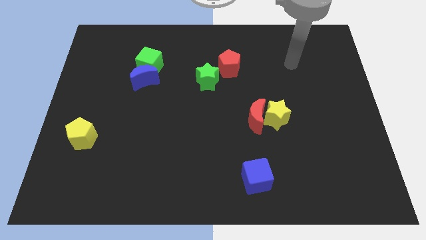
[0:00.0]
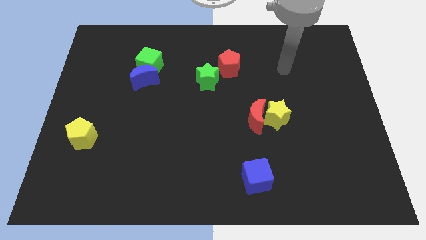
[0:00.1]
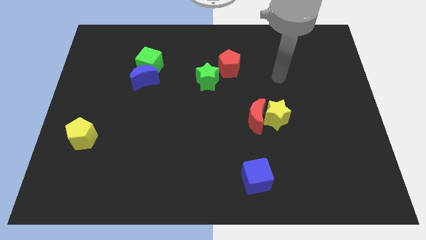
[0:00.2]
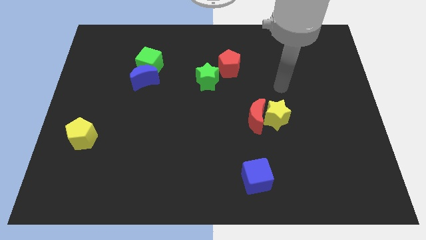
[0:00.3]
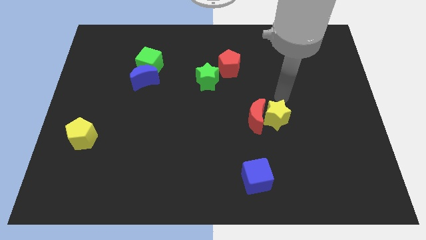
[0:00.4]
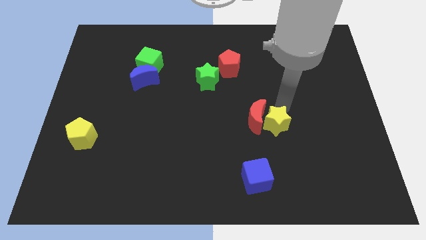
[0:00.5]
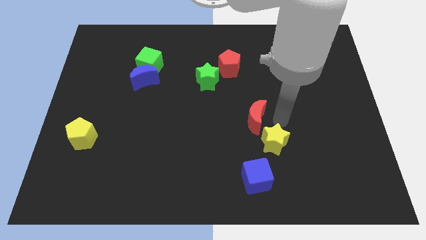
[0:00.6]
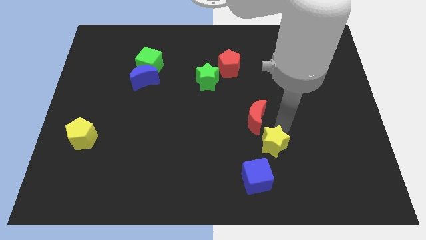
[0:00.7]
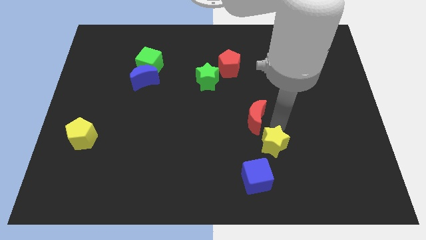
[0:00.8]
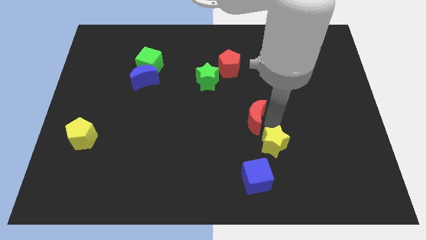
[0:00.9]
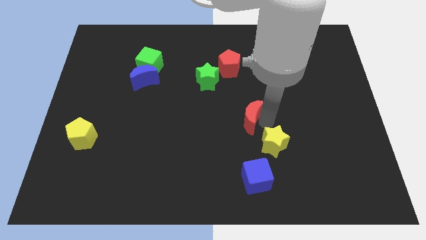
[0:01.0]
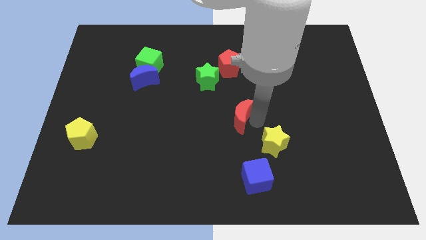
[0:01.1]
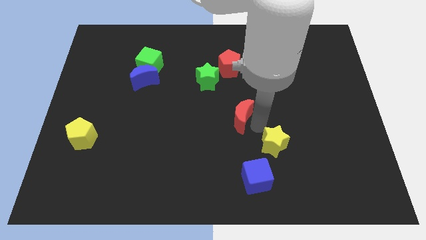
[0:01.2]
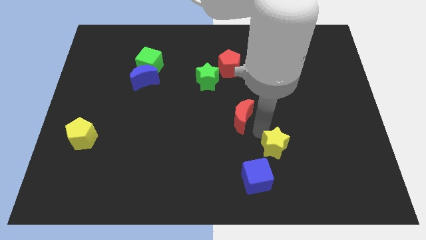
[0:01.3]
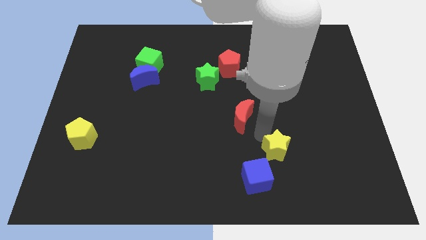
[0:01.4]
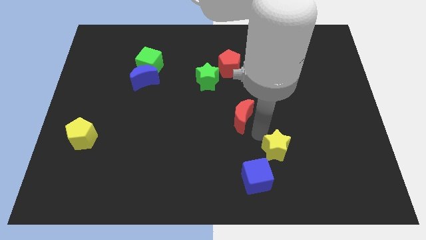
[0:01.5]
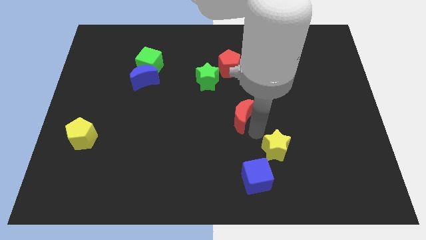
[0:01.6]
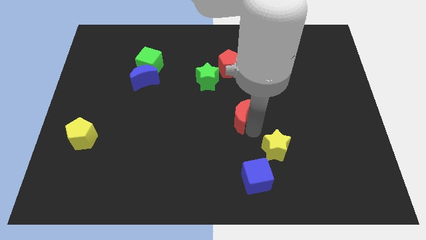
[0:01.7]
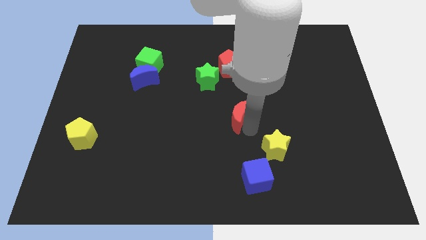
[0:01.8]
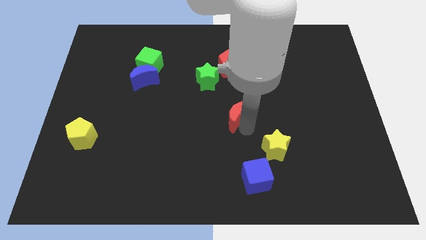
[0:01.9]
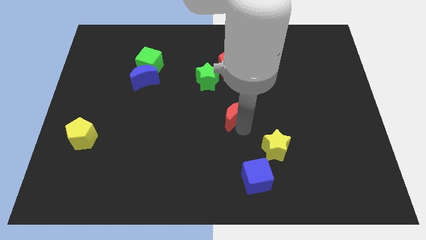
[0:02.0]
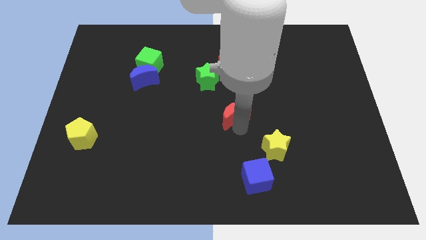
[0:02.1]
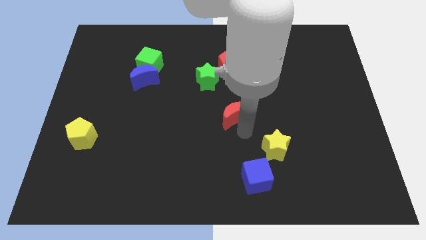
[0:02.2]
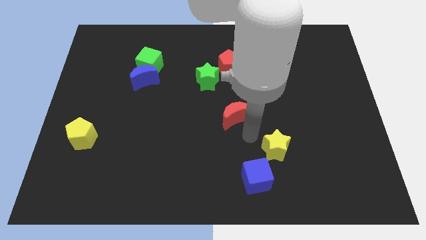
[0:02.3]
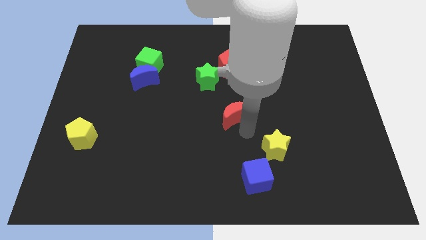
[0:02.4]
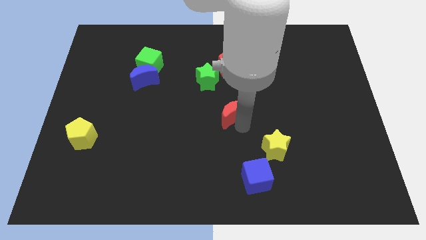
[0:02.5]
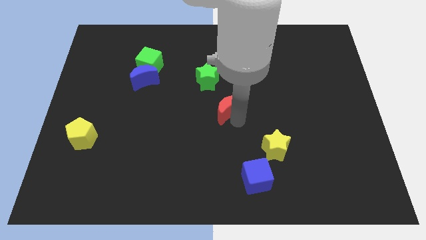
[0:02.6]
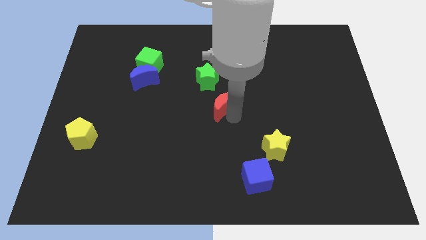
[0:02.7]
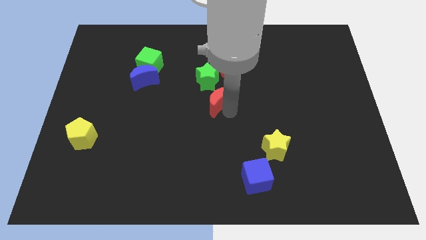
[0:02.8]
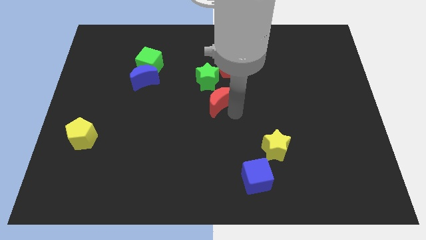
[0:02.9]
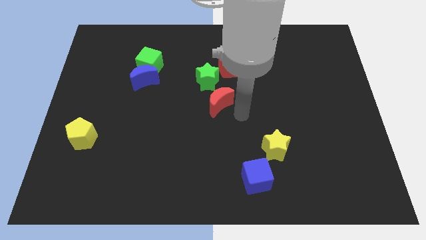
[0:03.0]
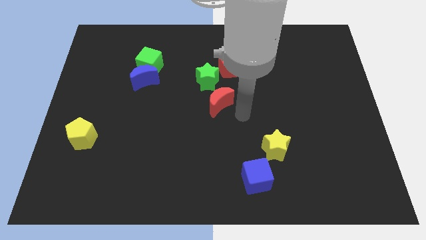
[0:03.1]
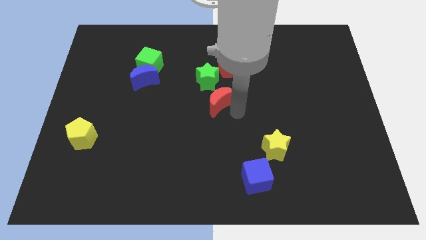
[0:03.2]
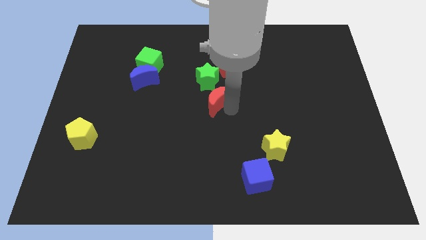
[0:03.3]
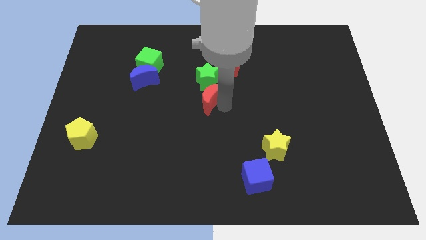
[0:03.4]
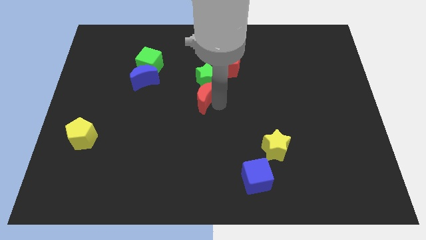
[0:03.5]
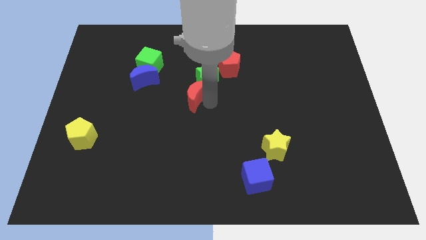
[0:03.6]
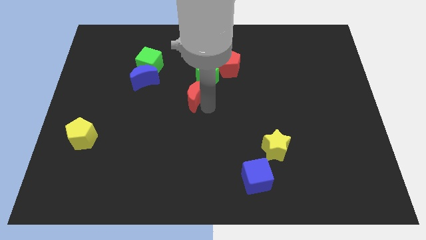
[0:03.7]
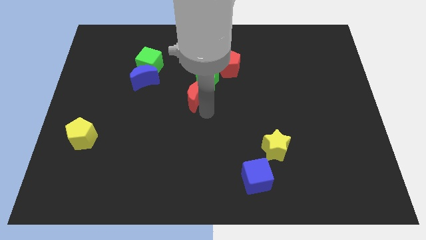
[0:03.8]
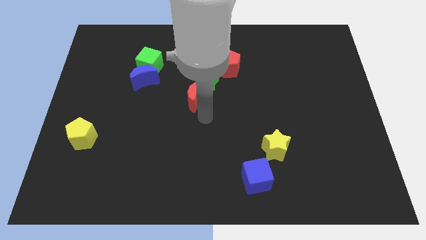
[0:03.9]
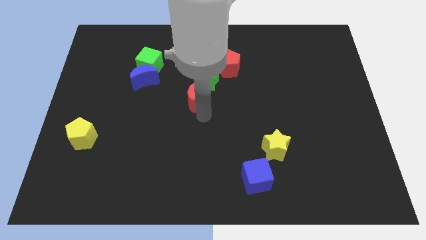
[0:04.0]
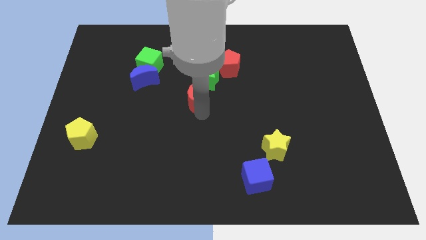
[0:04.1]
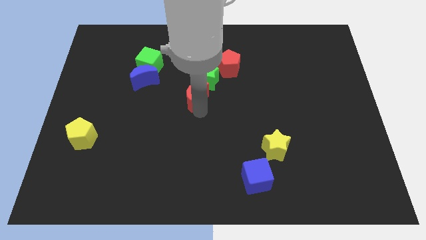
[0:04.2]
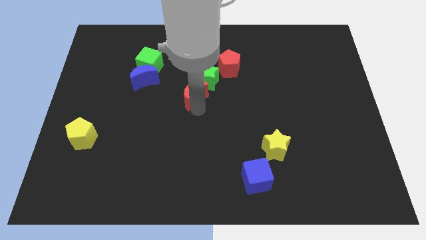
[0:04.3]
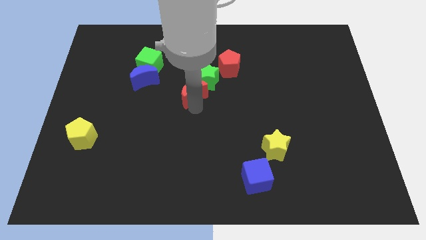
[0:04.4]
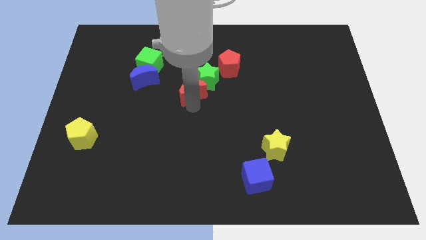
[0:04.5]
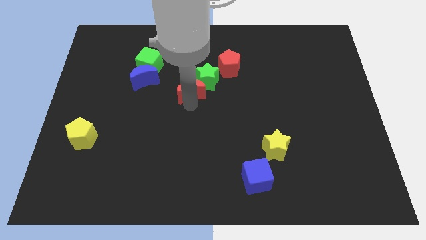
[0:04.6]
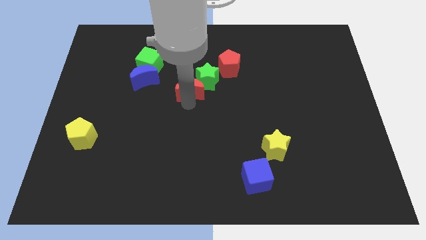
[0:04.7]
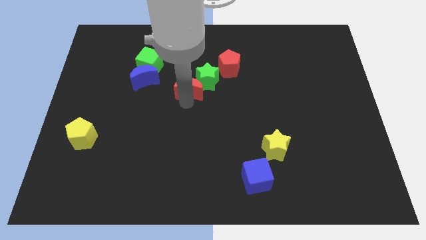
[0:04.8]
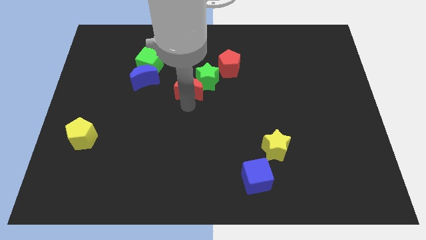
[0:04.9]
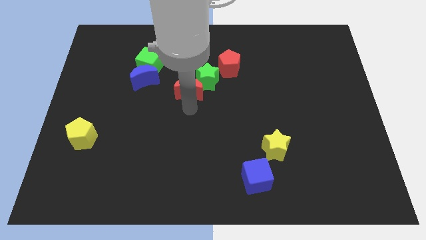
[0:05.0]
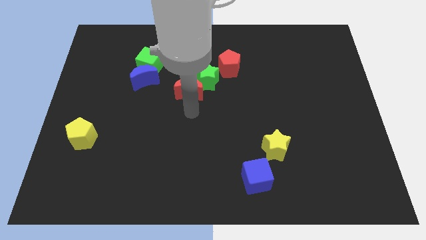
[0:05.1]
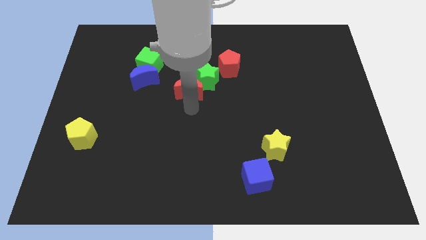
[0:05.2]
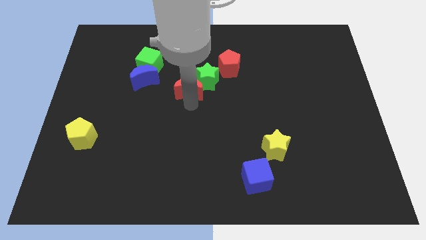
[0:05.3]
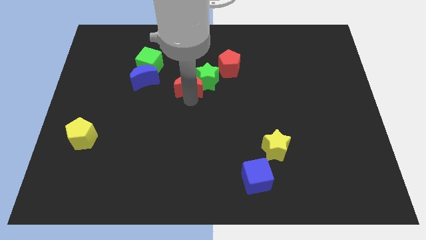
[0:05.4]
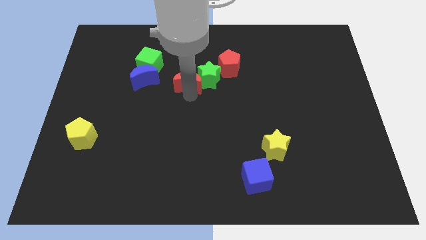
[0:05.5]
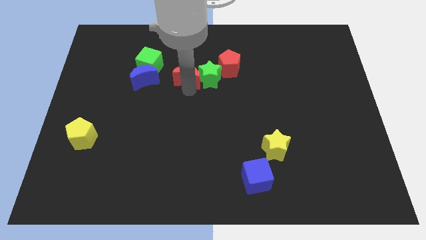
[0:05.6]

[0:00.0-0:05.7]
push the red moon to the left of the red pentagon
